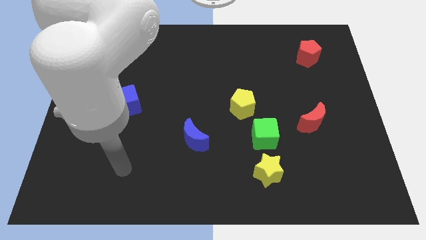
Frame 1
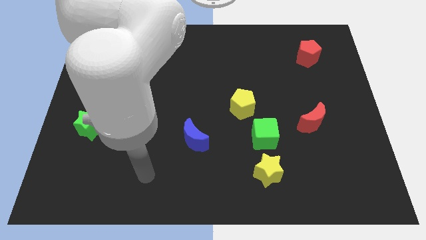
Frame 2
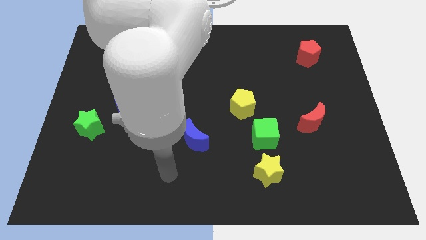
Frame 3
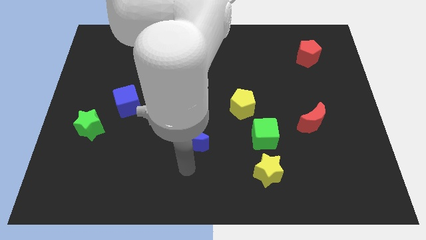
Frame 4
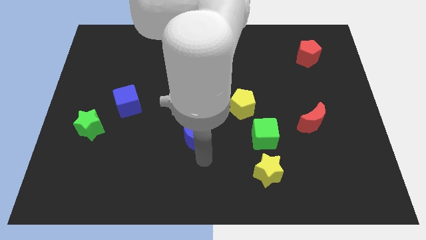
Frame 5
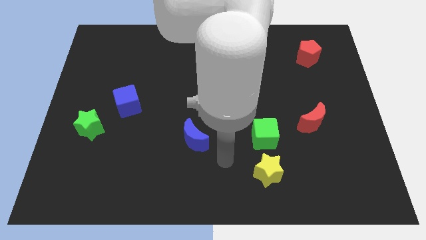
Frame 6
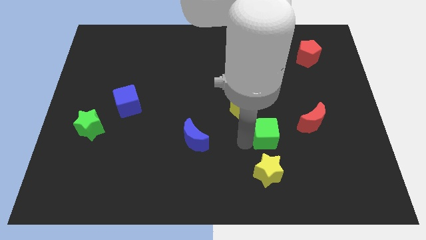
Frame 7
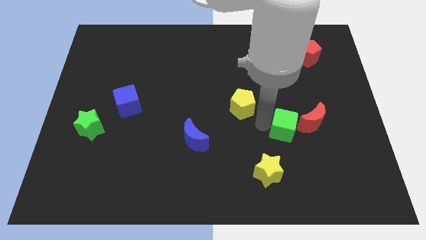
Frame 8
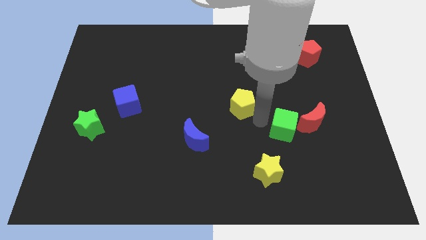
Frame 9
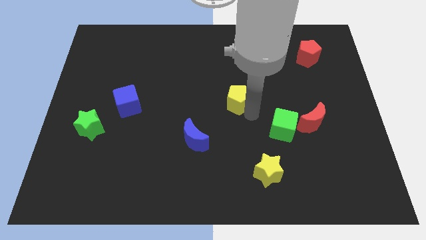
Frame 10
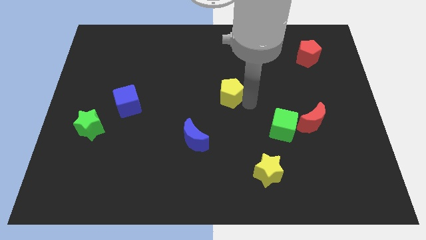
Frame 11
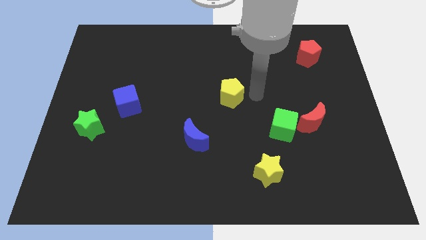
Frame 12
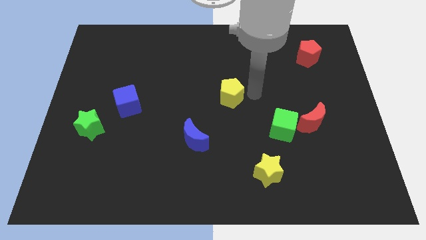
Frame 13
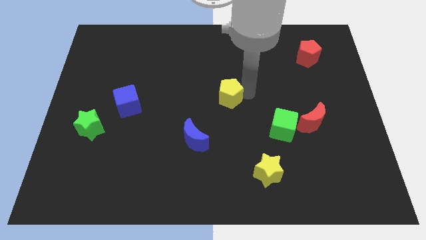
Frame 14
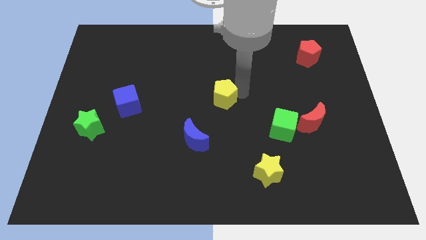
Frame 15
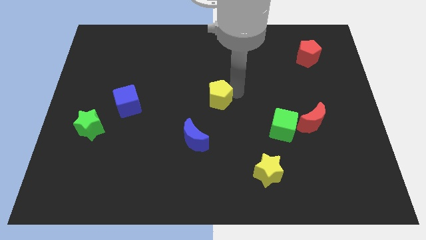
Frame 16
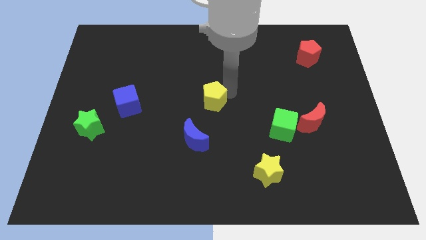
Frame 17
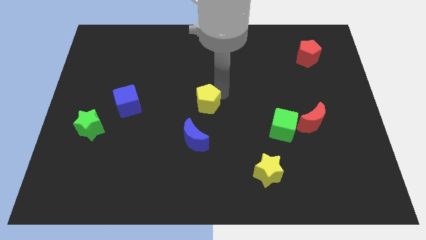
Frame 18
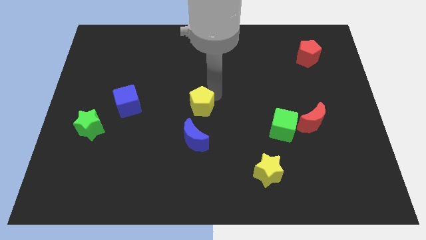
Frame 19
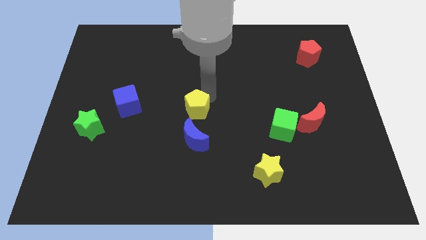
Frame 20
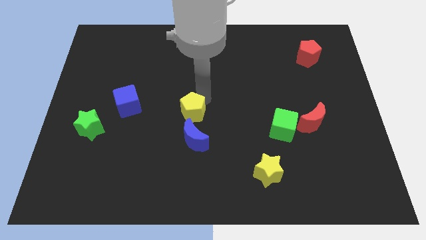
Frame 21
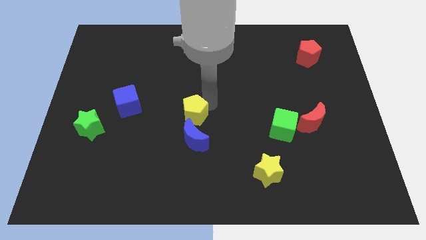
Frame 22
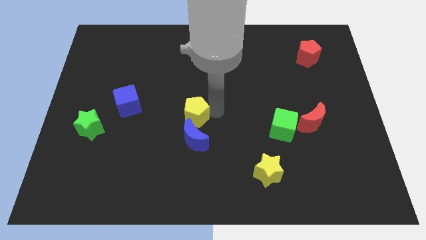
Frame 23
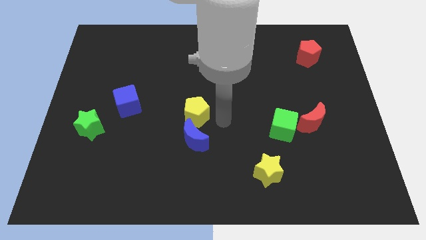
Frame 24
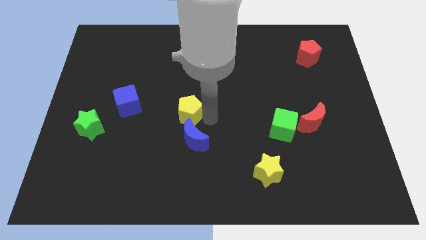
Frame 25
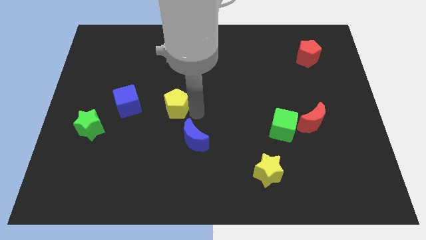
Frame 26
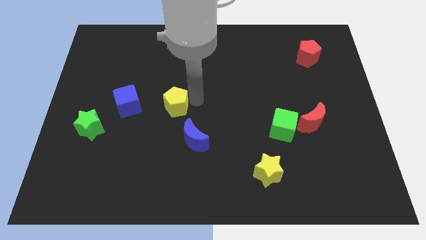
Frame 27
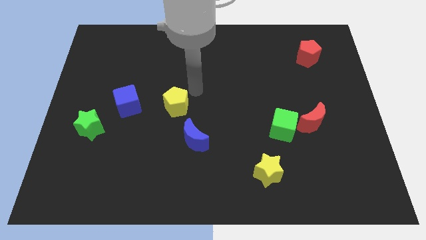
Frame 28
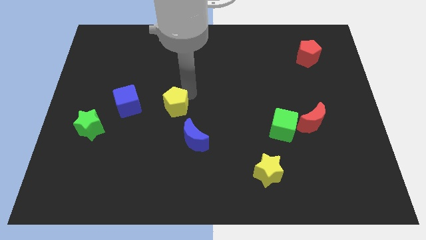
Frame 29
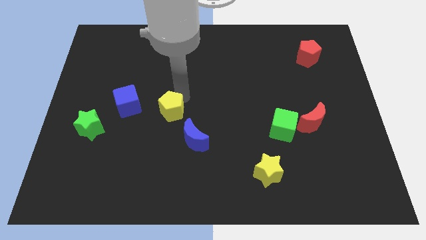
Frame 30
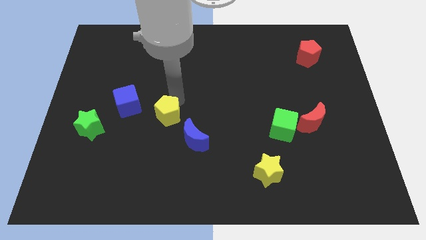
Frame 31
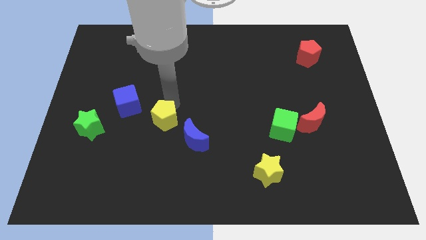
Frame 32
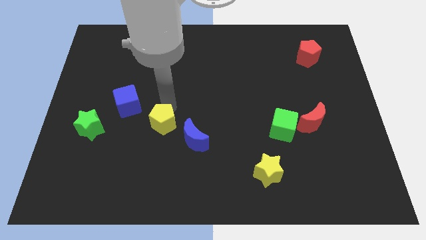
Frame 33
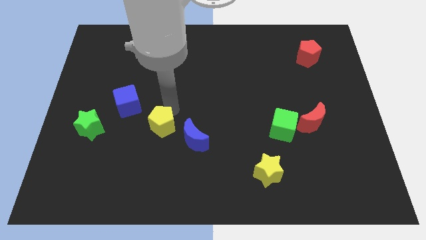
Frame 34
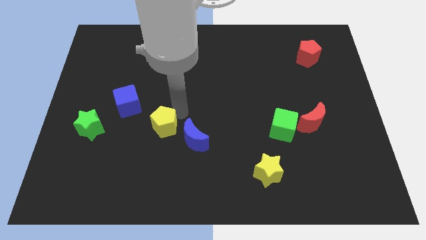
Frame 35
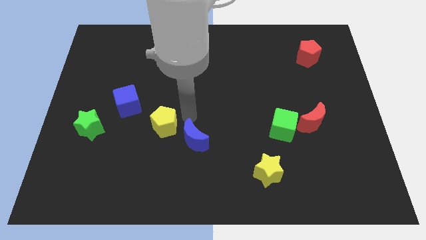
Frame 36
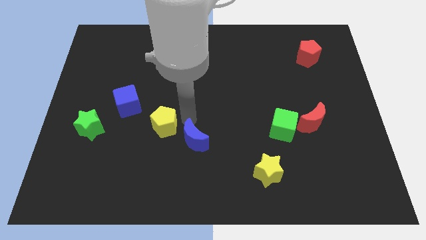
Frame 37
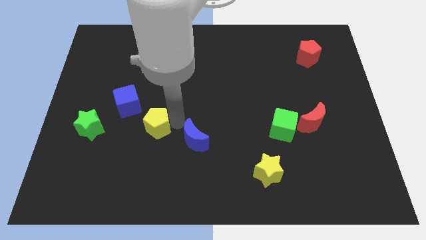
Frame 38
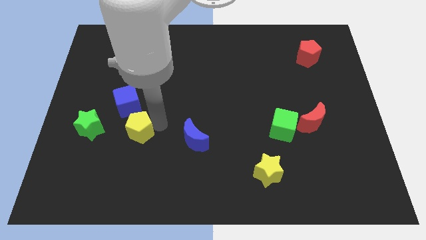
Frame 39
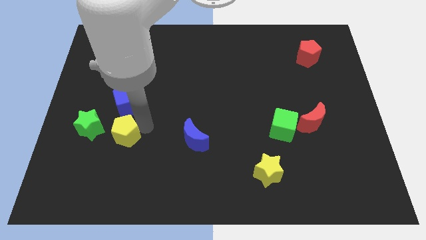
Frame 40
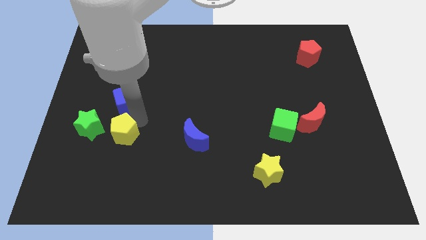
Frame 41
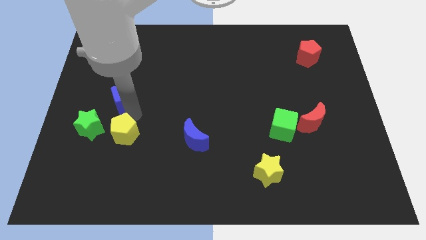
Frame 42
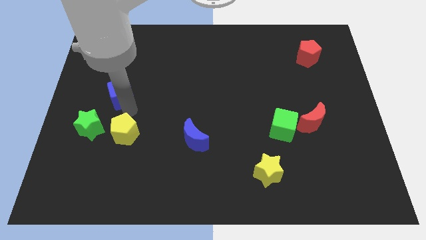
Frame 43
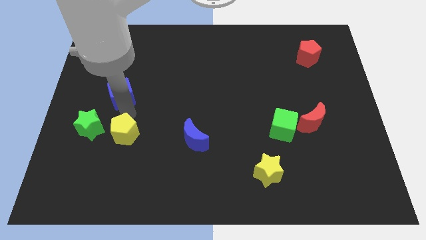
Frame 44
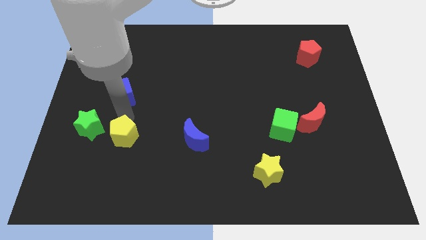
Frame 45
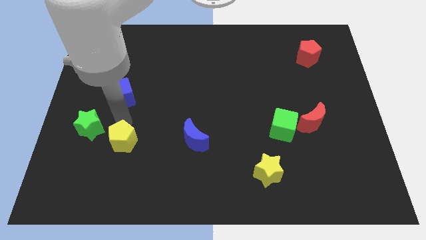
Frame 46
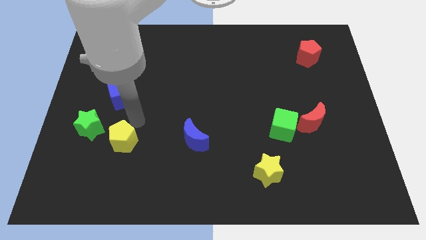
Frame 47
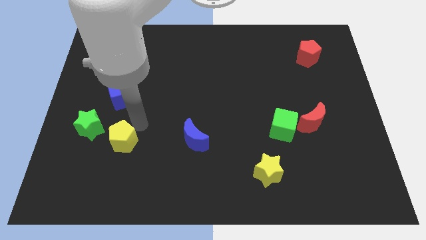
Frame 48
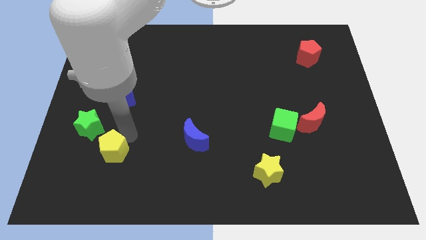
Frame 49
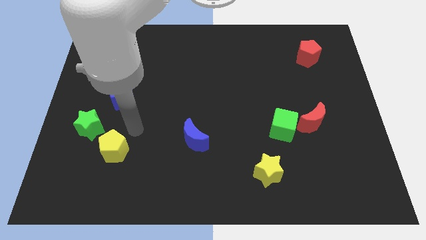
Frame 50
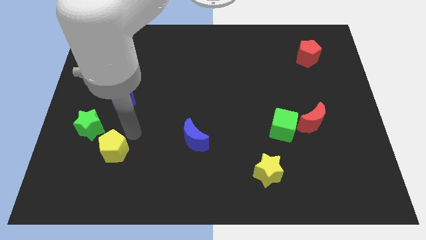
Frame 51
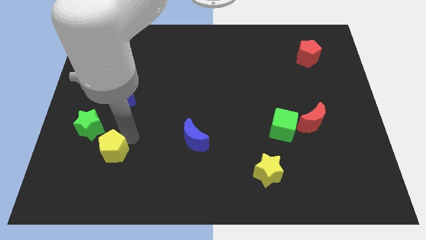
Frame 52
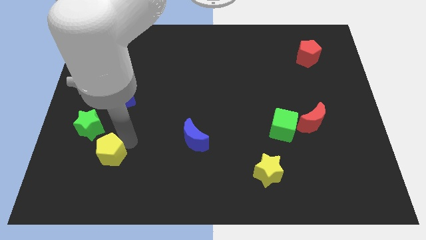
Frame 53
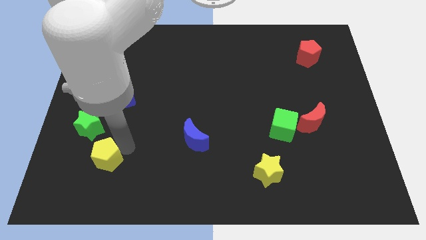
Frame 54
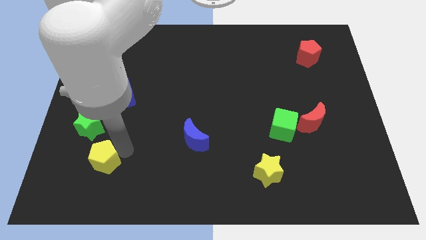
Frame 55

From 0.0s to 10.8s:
push the yellow pentagon below the green star

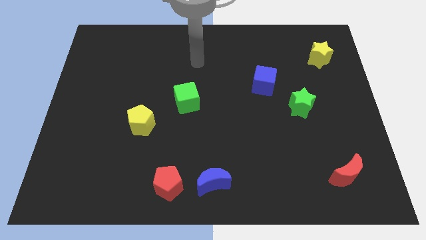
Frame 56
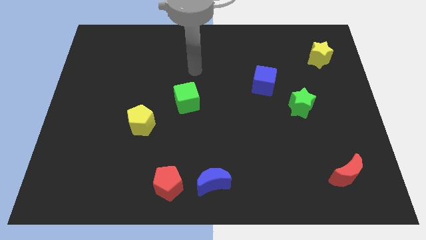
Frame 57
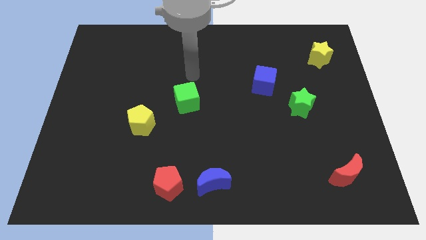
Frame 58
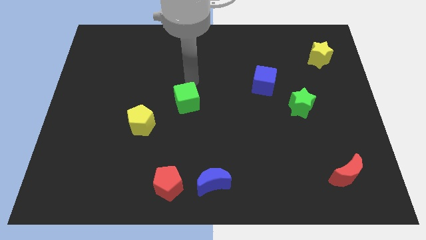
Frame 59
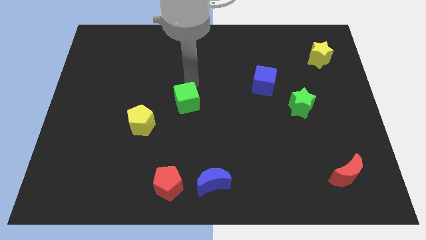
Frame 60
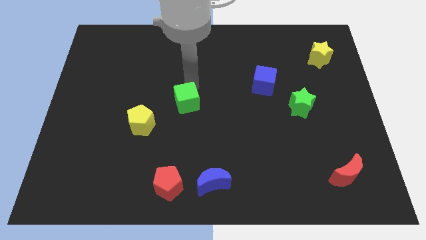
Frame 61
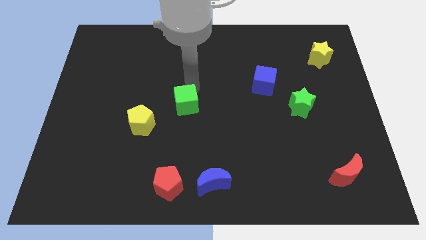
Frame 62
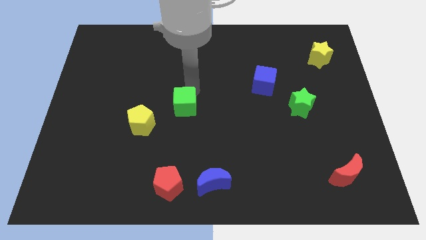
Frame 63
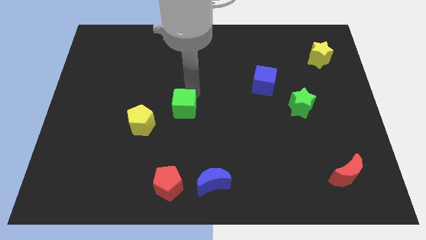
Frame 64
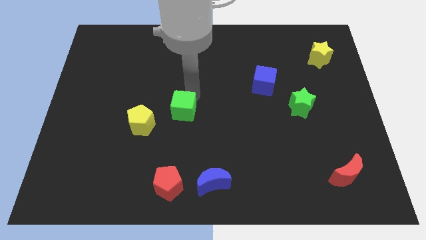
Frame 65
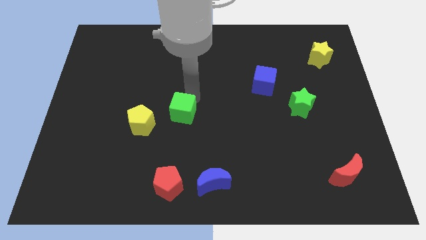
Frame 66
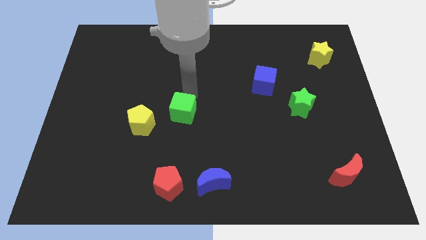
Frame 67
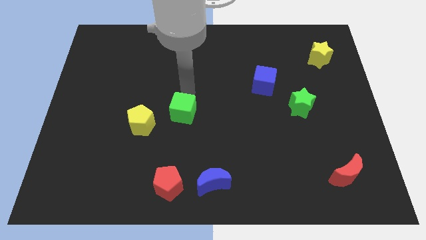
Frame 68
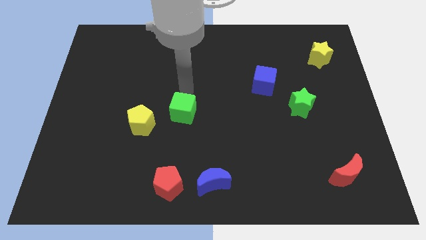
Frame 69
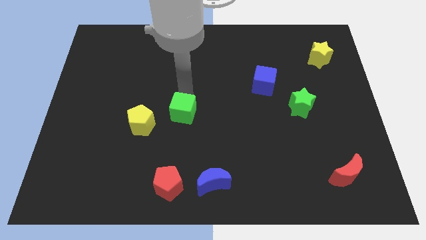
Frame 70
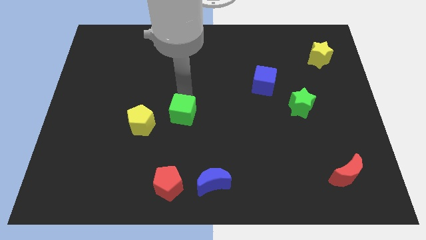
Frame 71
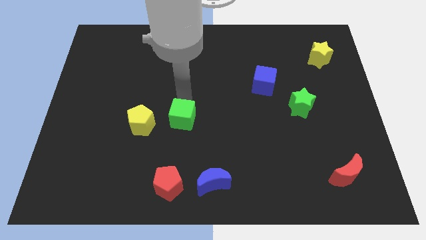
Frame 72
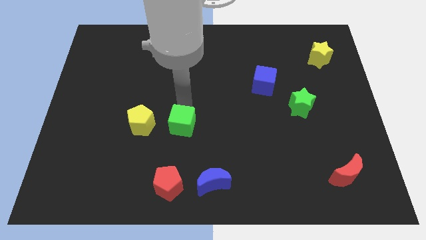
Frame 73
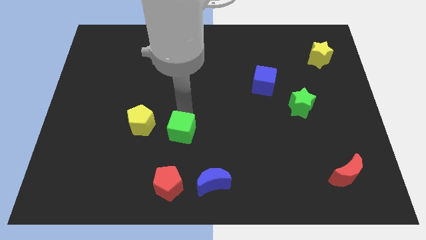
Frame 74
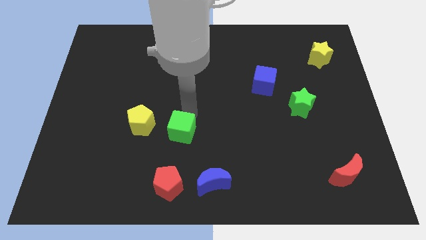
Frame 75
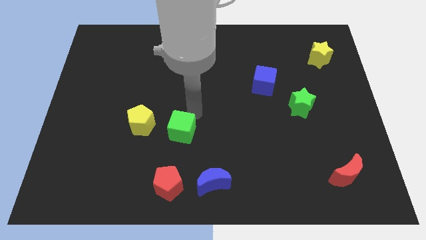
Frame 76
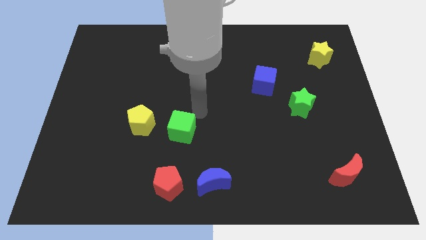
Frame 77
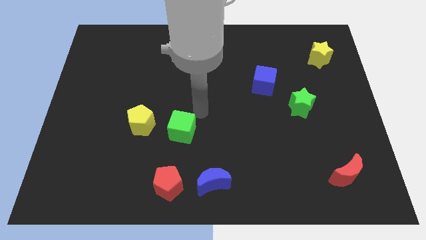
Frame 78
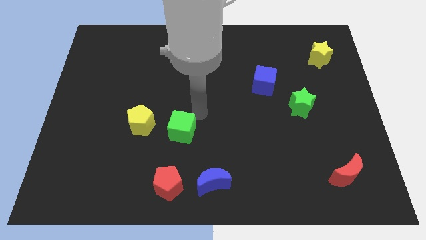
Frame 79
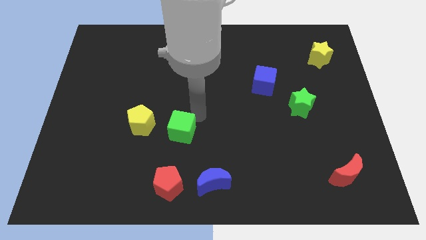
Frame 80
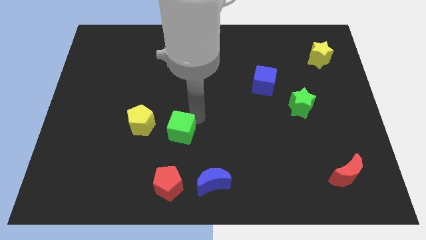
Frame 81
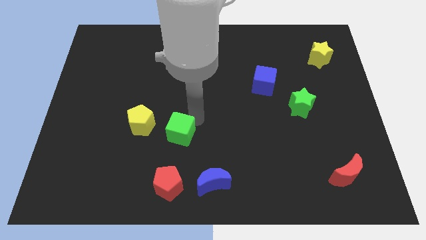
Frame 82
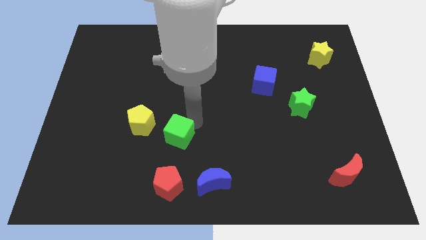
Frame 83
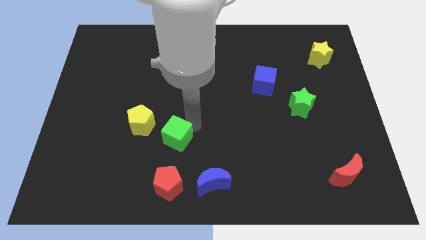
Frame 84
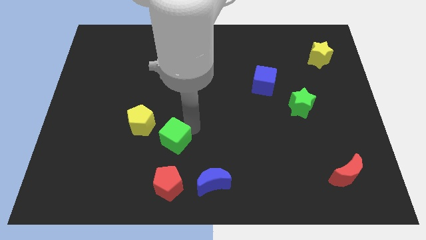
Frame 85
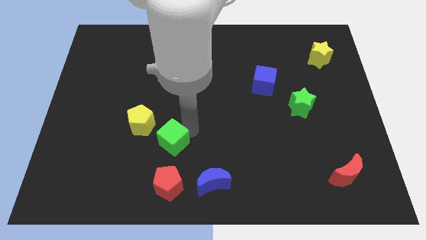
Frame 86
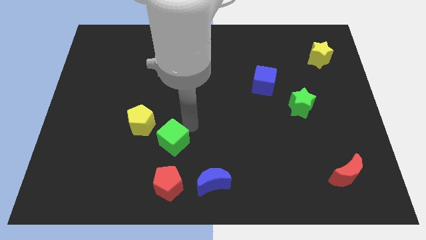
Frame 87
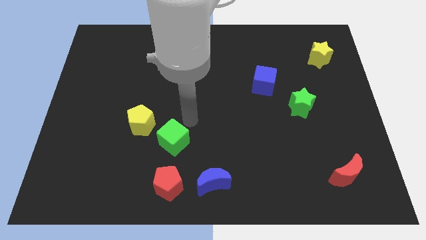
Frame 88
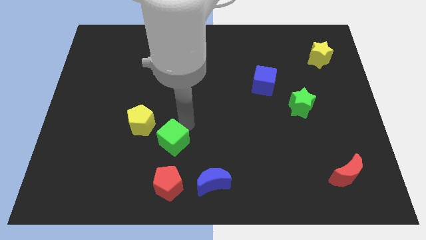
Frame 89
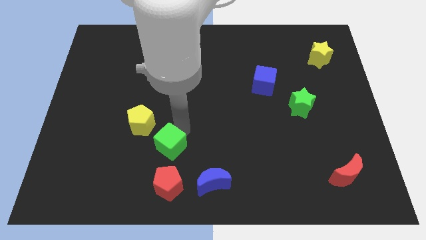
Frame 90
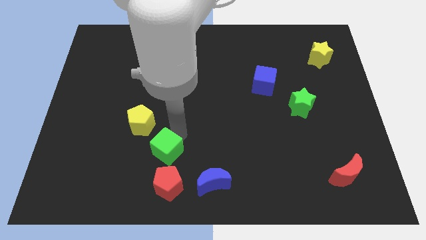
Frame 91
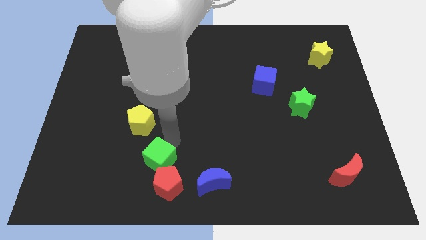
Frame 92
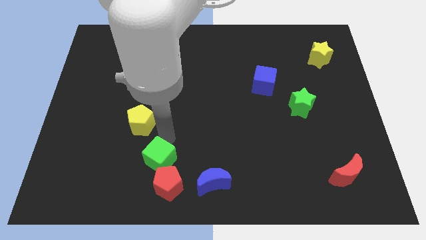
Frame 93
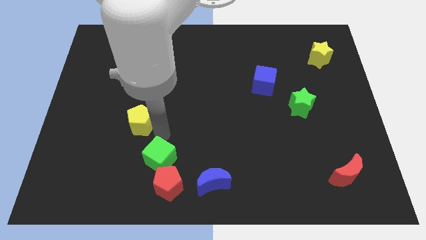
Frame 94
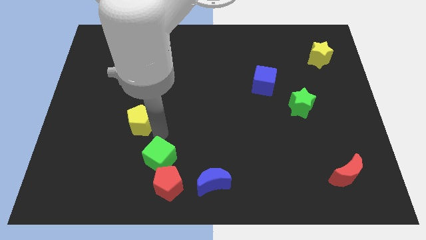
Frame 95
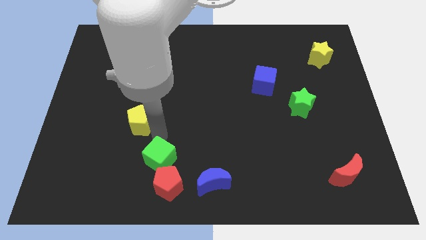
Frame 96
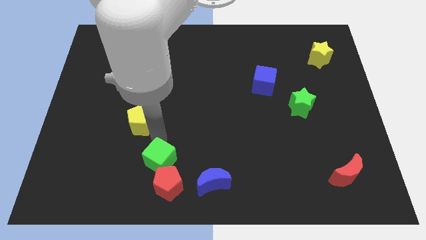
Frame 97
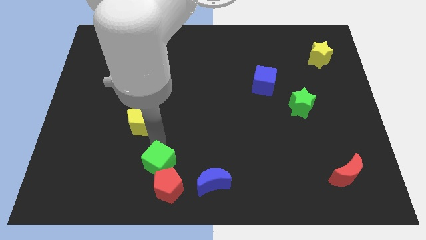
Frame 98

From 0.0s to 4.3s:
push the green cube just left of the blue moon
